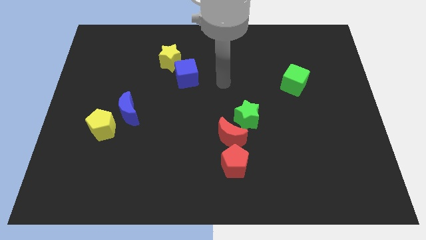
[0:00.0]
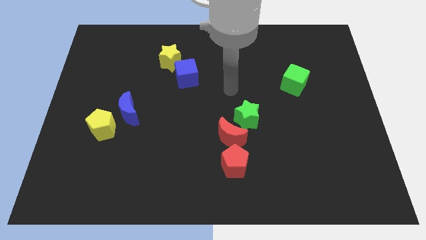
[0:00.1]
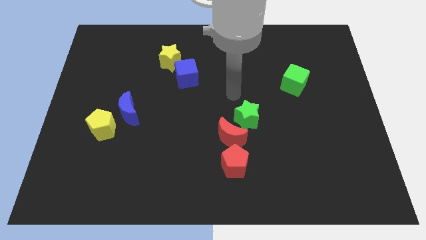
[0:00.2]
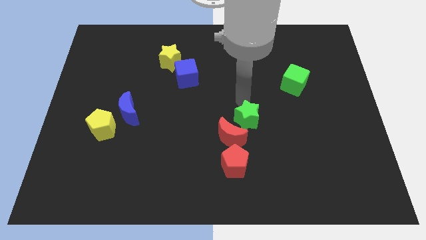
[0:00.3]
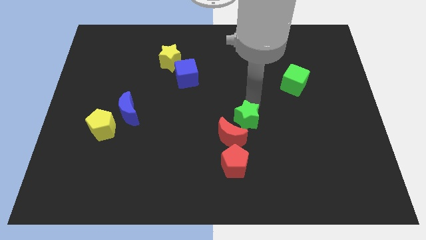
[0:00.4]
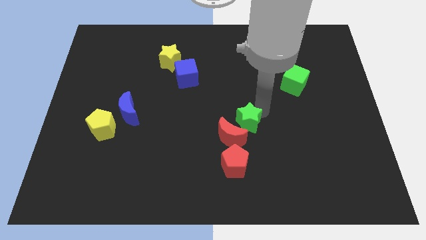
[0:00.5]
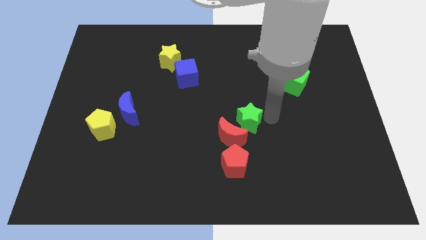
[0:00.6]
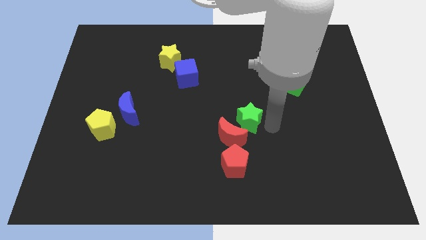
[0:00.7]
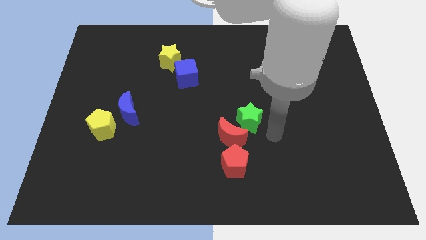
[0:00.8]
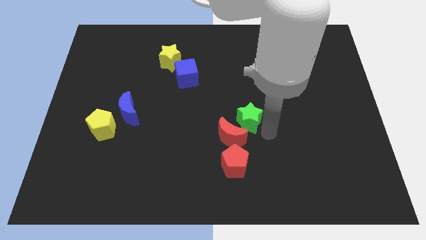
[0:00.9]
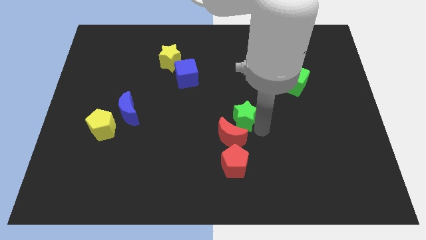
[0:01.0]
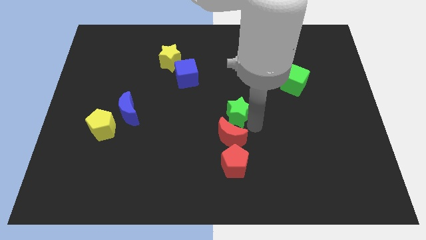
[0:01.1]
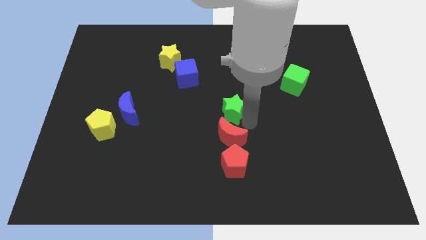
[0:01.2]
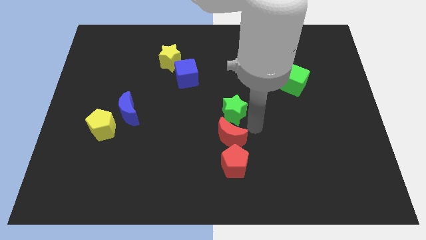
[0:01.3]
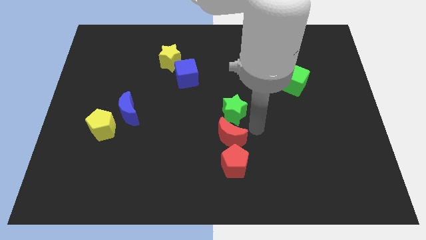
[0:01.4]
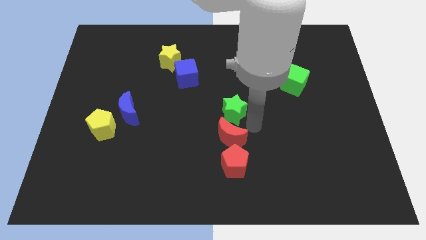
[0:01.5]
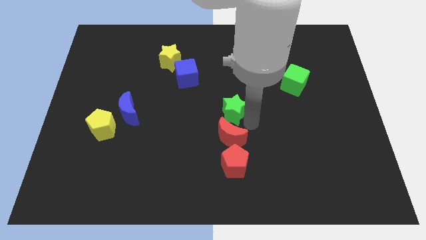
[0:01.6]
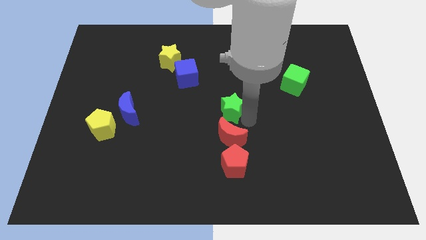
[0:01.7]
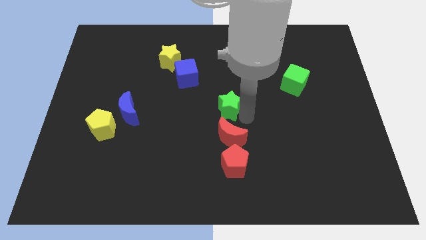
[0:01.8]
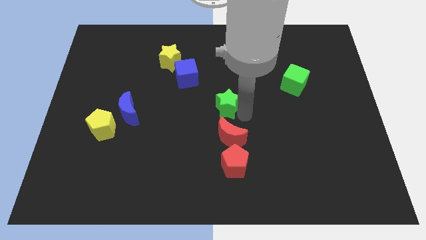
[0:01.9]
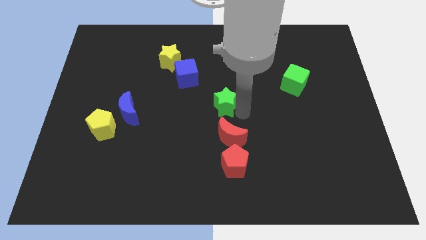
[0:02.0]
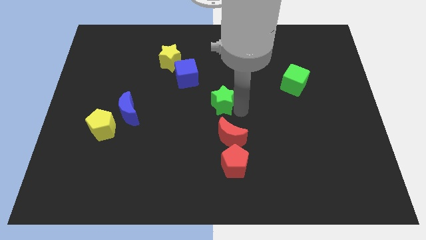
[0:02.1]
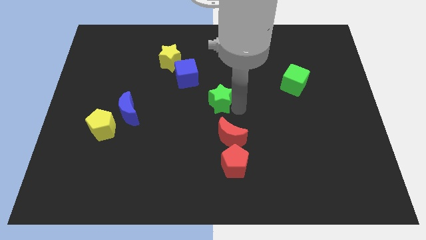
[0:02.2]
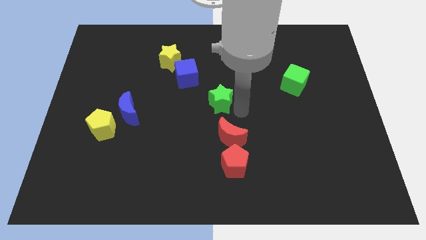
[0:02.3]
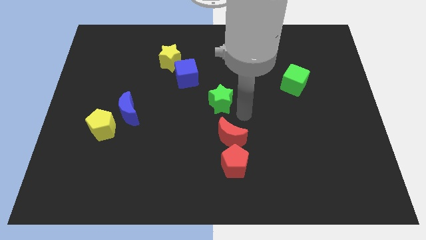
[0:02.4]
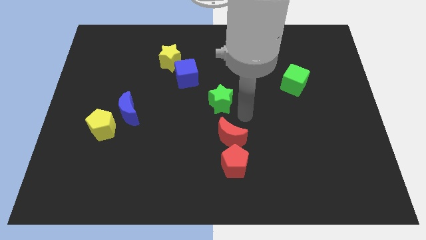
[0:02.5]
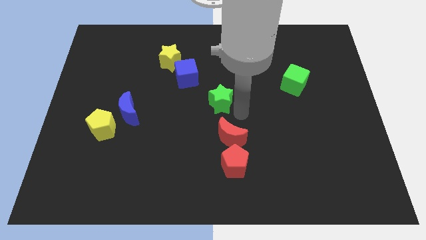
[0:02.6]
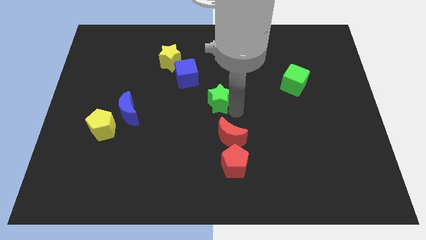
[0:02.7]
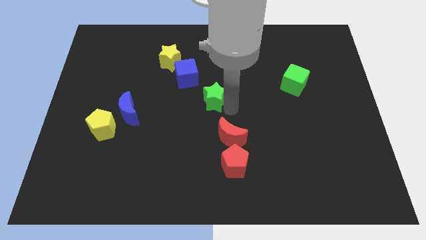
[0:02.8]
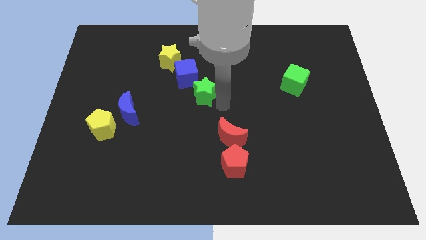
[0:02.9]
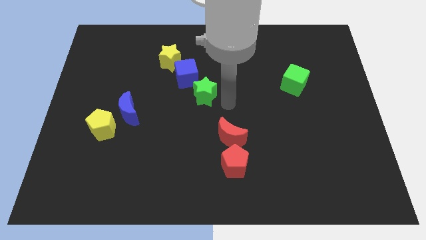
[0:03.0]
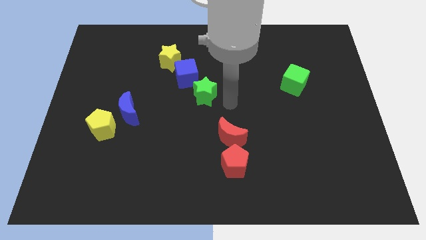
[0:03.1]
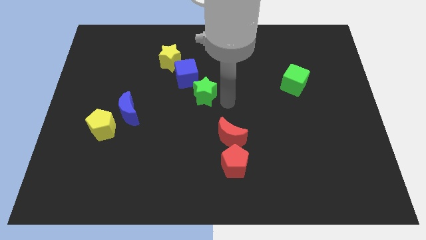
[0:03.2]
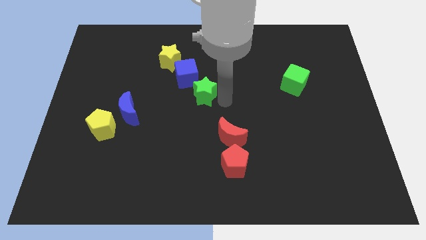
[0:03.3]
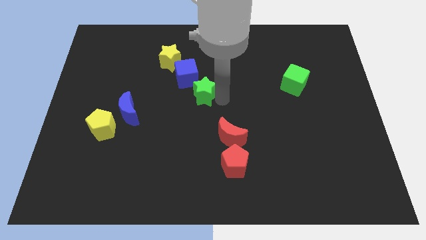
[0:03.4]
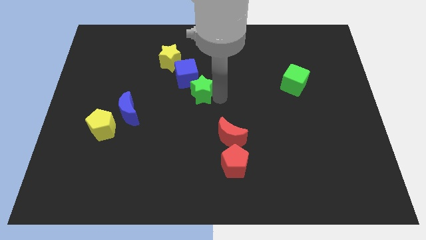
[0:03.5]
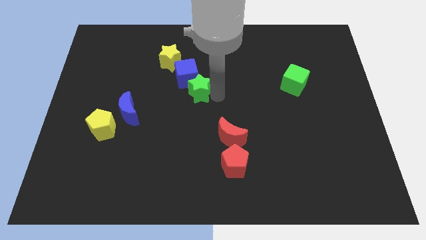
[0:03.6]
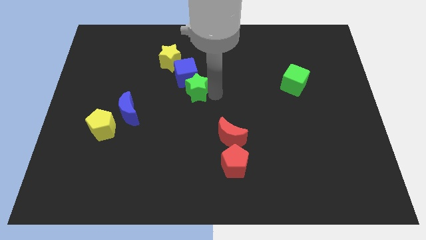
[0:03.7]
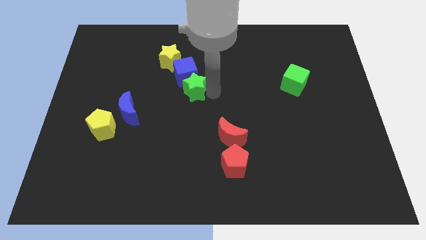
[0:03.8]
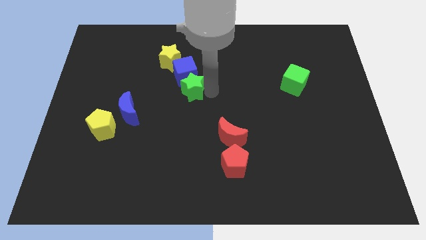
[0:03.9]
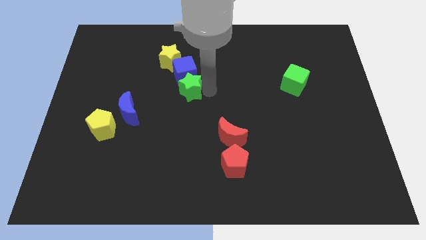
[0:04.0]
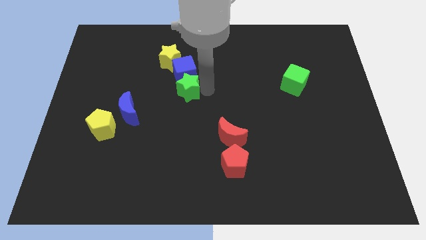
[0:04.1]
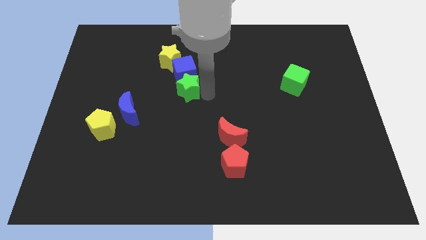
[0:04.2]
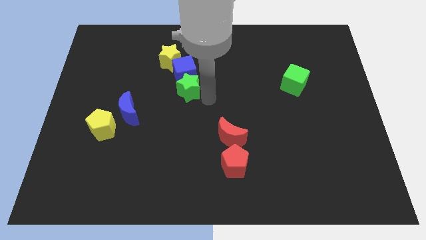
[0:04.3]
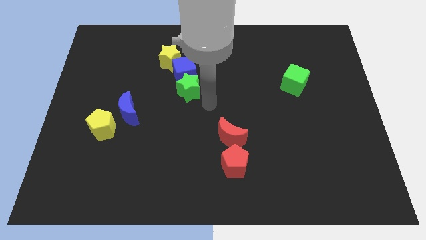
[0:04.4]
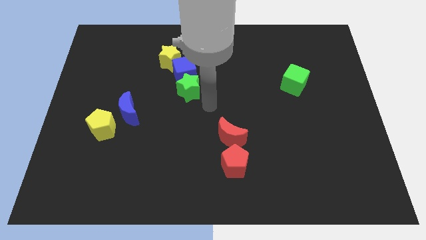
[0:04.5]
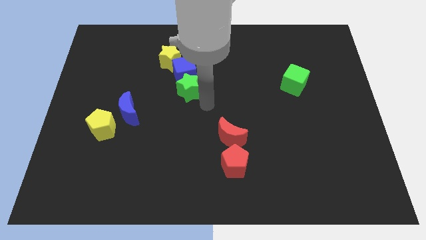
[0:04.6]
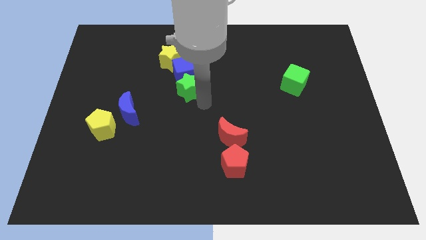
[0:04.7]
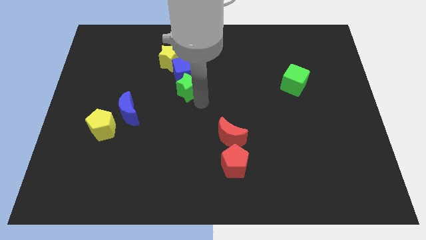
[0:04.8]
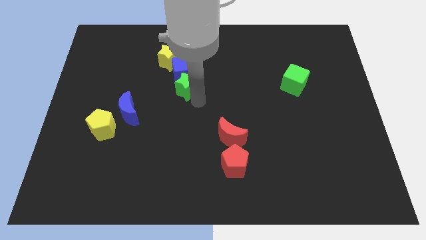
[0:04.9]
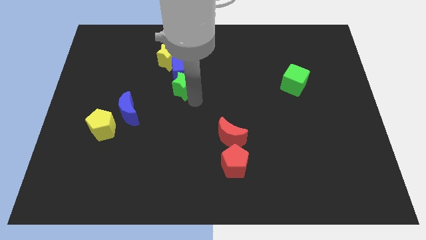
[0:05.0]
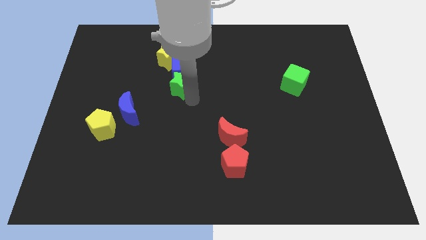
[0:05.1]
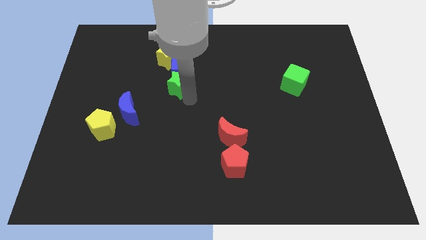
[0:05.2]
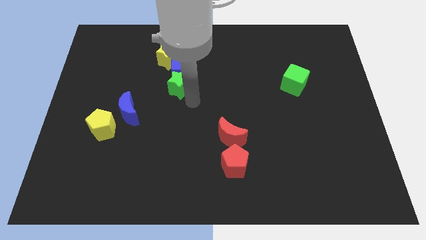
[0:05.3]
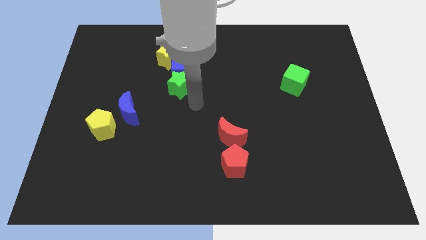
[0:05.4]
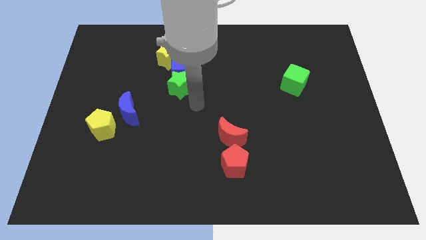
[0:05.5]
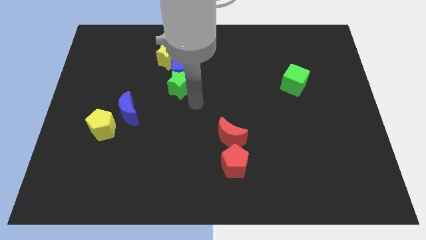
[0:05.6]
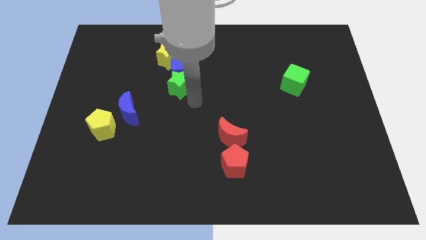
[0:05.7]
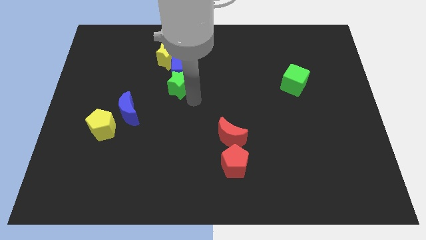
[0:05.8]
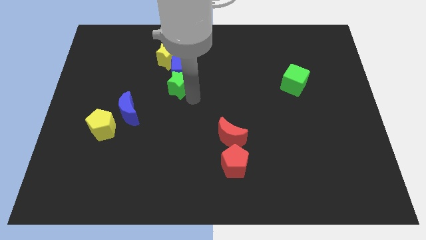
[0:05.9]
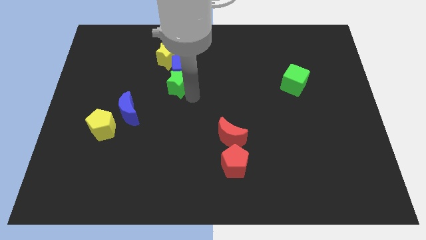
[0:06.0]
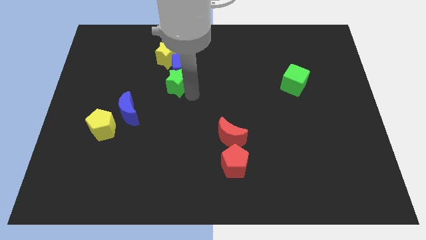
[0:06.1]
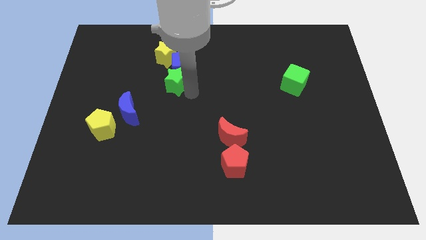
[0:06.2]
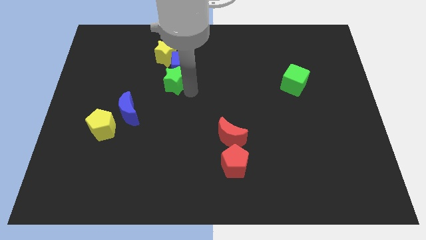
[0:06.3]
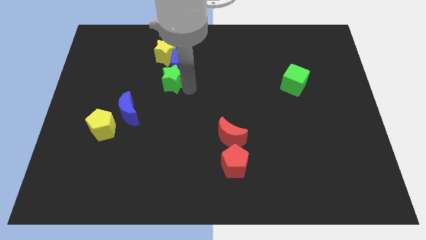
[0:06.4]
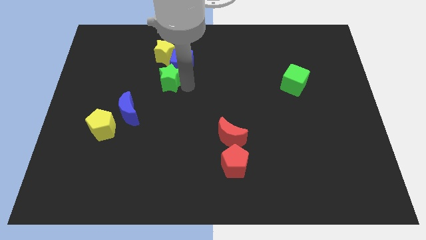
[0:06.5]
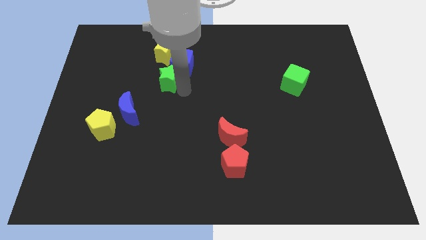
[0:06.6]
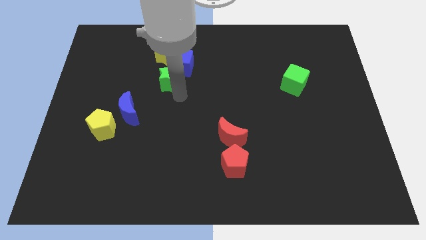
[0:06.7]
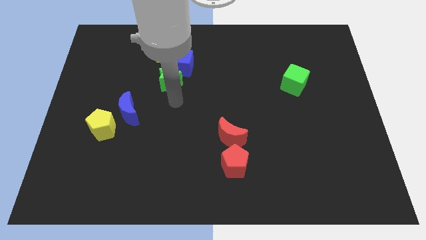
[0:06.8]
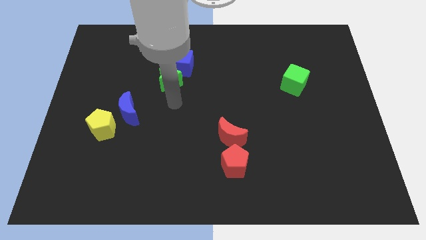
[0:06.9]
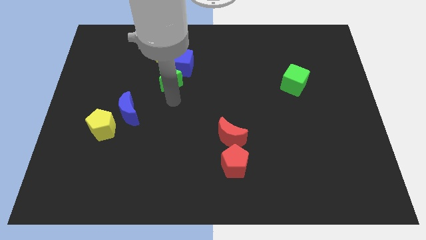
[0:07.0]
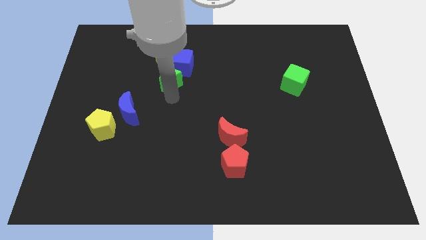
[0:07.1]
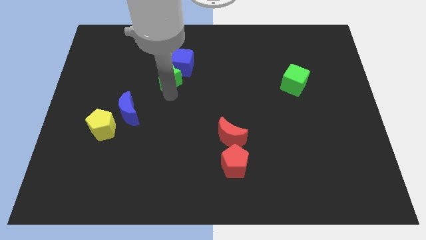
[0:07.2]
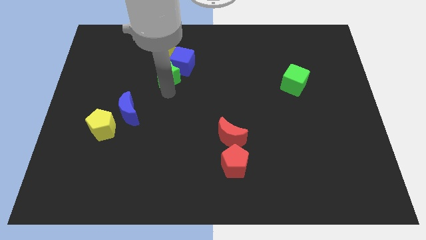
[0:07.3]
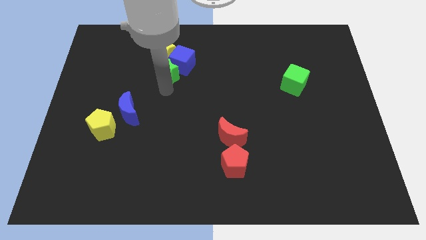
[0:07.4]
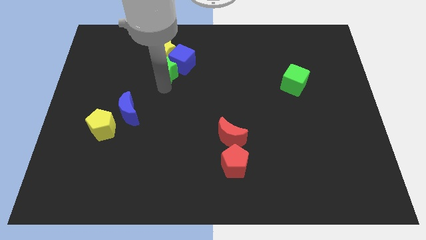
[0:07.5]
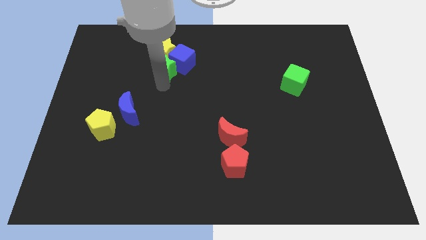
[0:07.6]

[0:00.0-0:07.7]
slide the green star close to the yellow star
